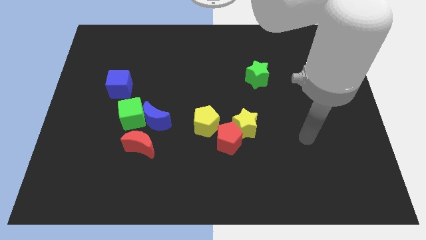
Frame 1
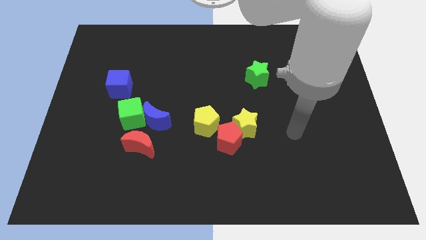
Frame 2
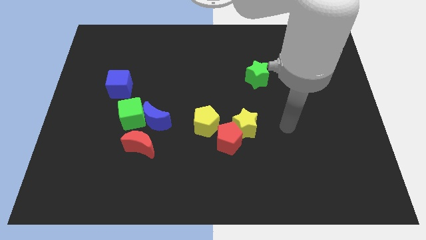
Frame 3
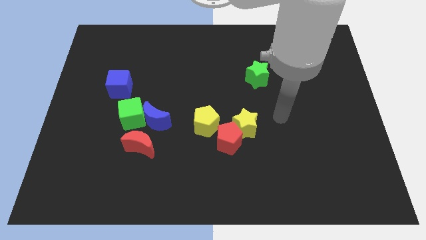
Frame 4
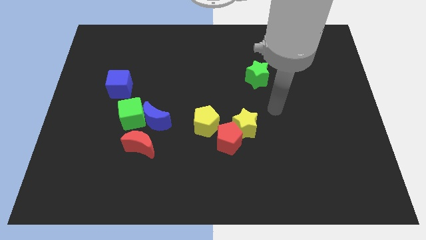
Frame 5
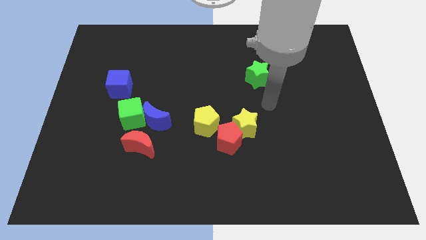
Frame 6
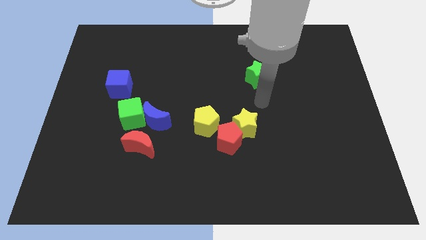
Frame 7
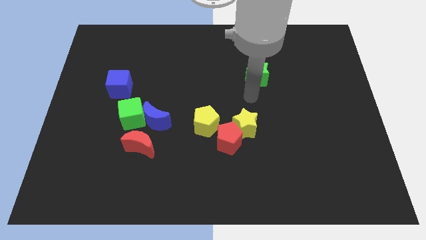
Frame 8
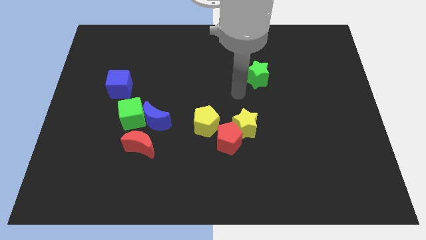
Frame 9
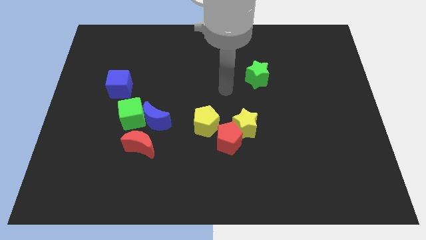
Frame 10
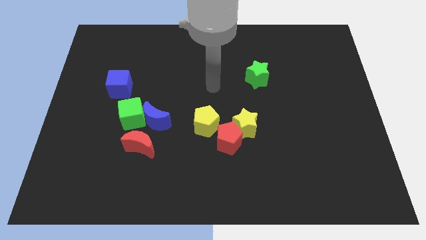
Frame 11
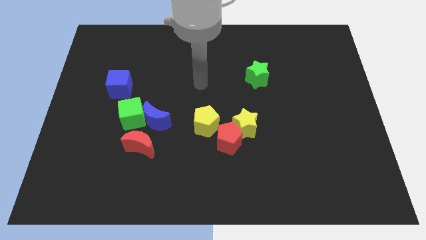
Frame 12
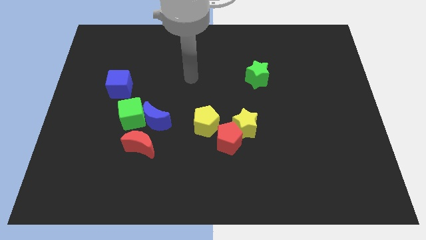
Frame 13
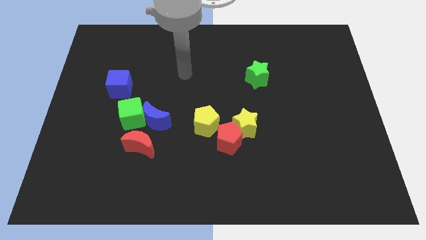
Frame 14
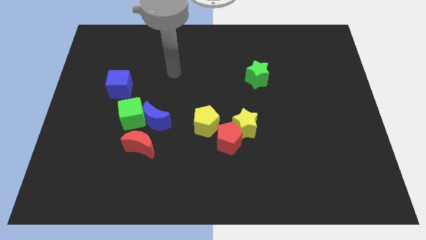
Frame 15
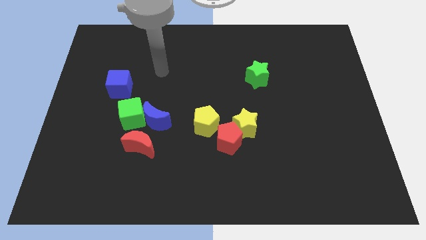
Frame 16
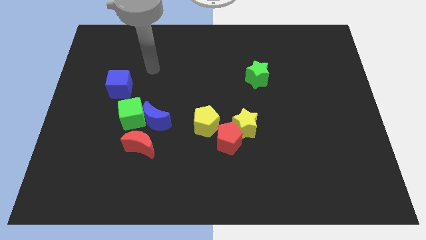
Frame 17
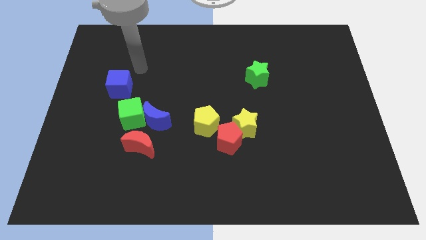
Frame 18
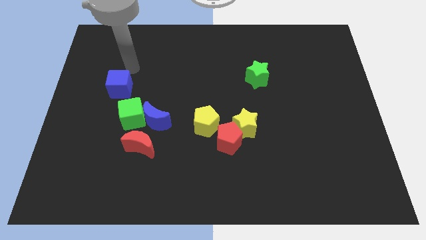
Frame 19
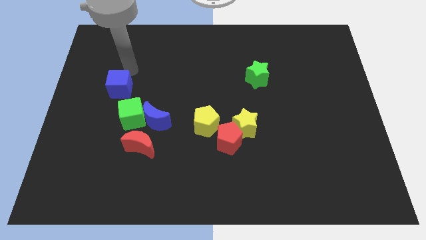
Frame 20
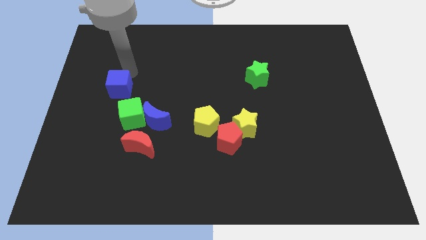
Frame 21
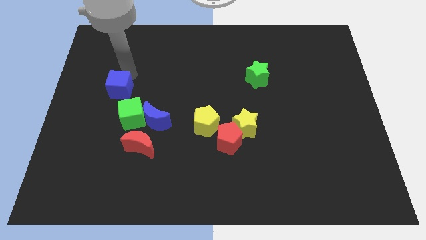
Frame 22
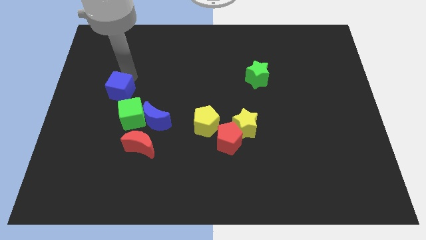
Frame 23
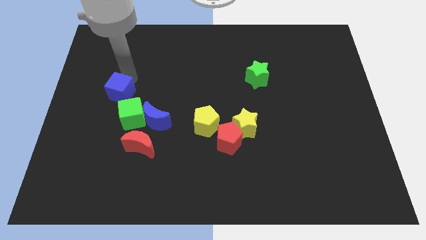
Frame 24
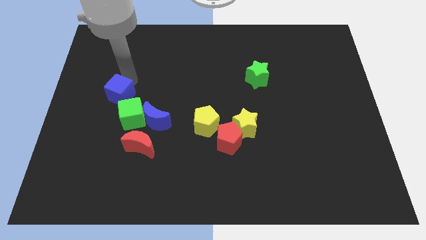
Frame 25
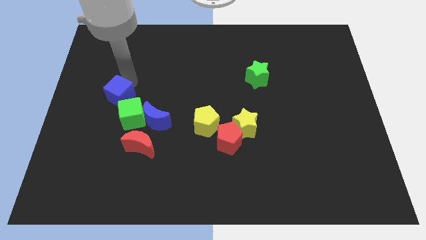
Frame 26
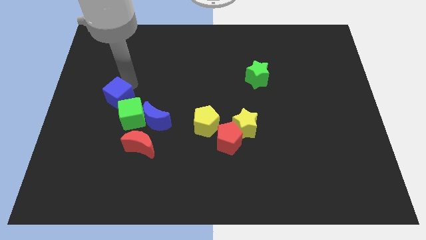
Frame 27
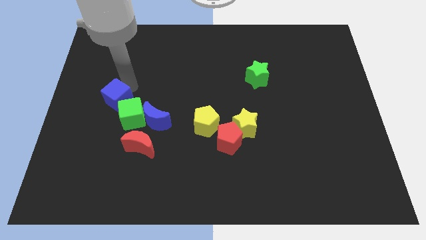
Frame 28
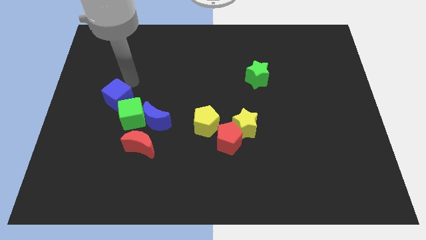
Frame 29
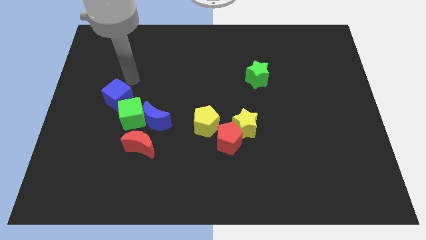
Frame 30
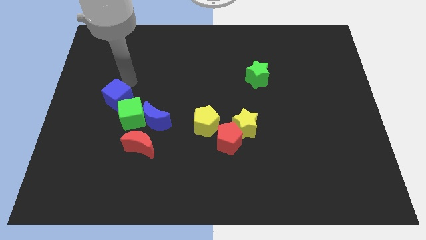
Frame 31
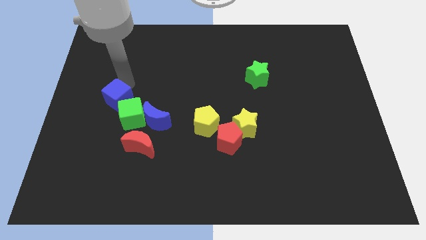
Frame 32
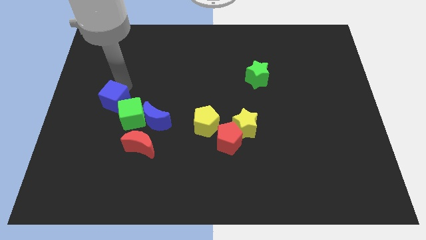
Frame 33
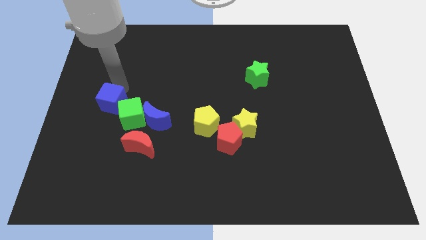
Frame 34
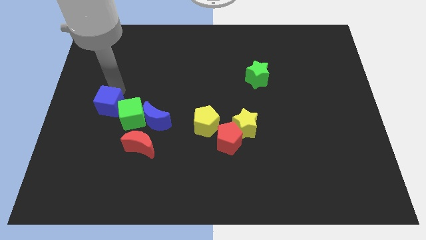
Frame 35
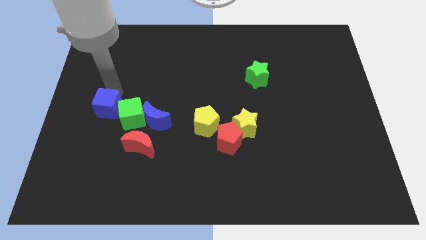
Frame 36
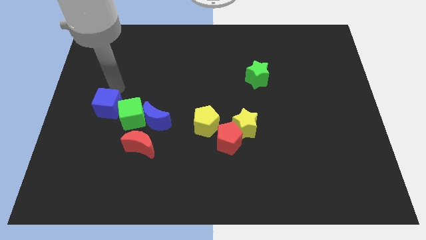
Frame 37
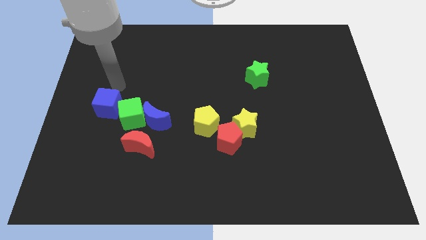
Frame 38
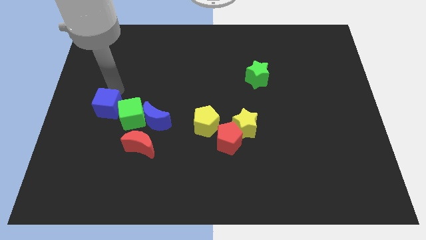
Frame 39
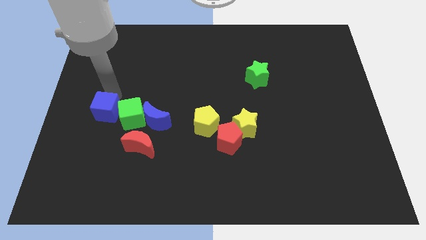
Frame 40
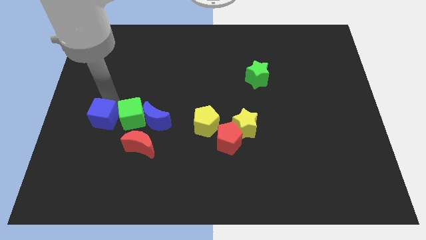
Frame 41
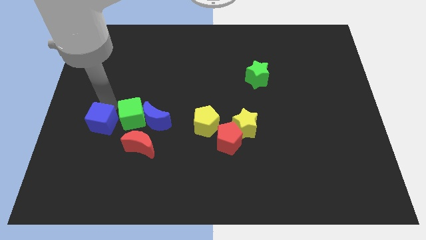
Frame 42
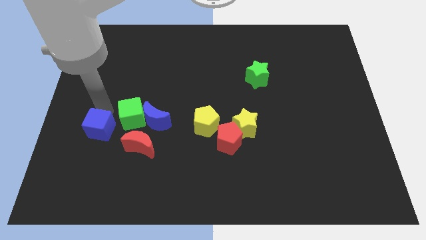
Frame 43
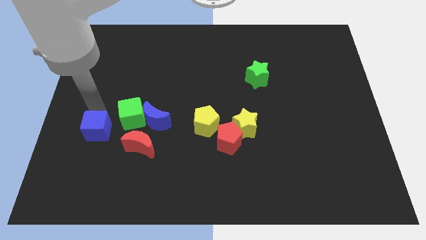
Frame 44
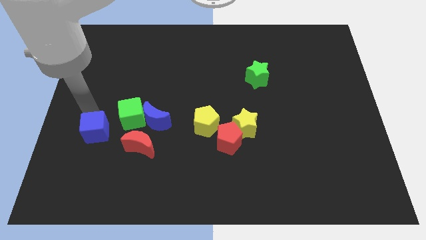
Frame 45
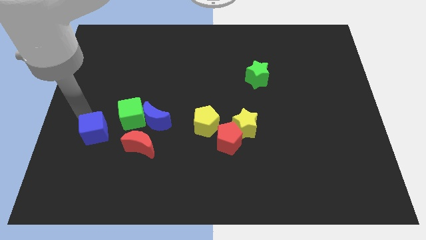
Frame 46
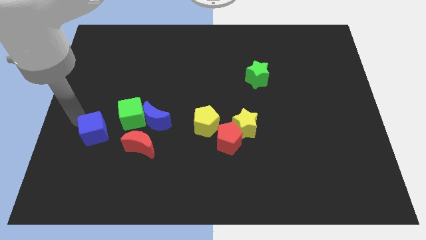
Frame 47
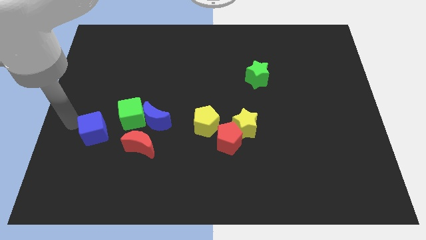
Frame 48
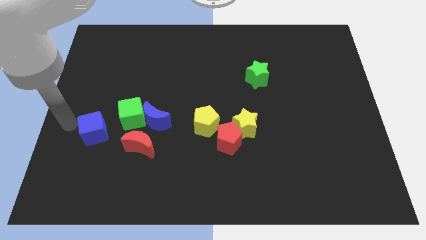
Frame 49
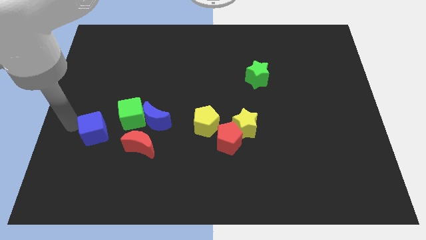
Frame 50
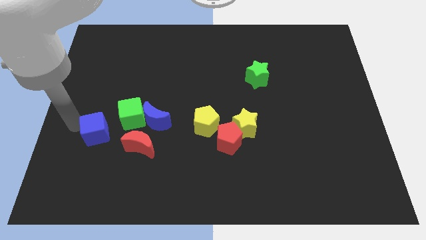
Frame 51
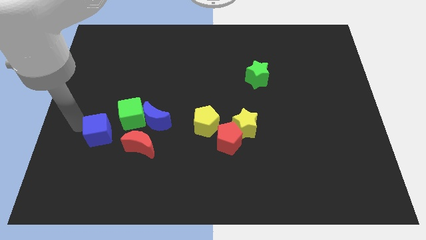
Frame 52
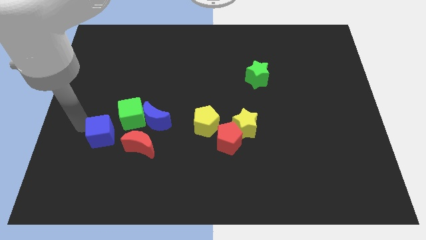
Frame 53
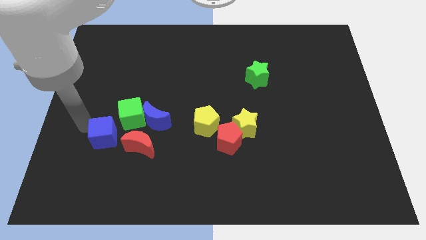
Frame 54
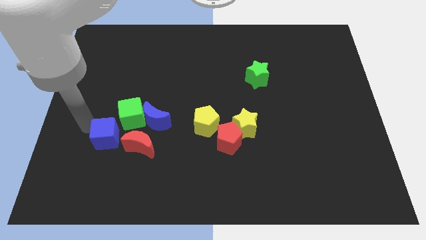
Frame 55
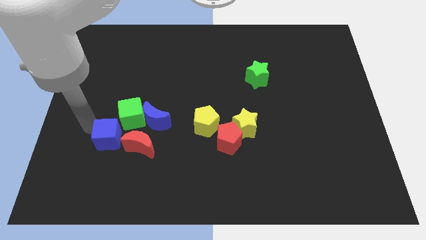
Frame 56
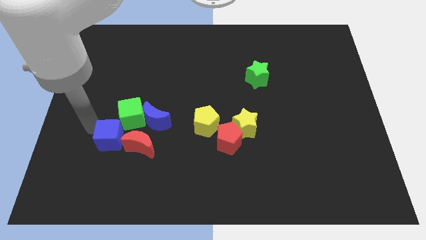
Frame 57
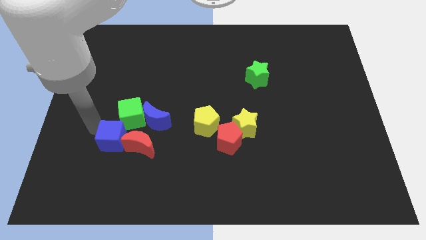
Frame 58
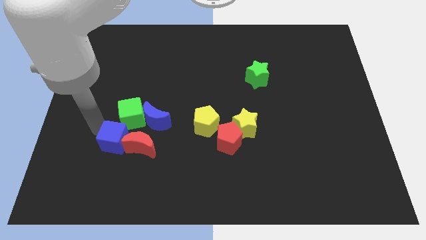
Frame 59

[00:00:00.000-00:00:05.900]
put the blue cube close to the red moon

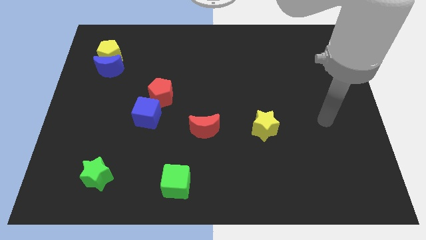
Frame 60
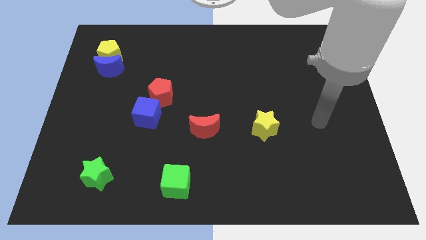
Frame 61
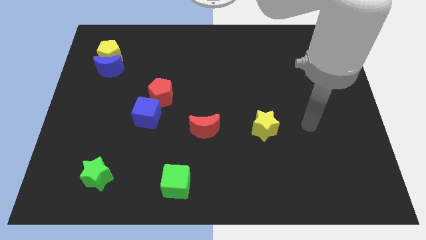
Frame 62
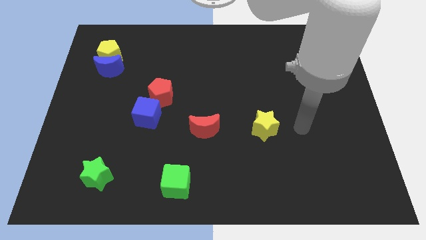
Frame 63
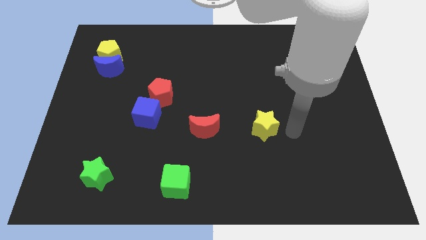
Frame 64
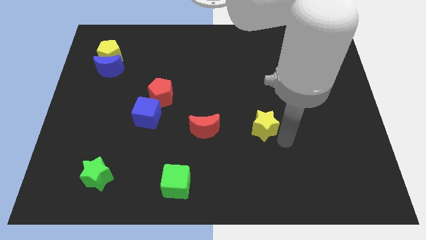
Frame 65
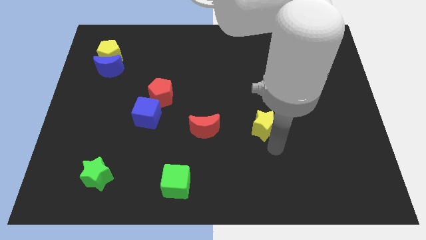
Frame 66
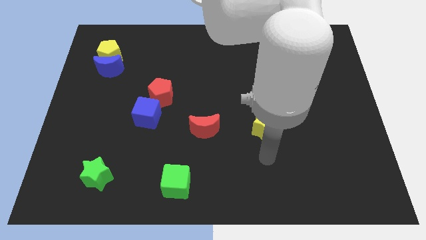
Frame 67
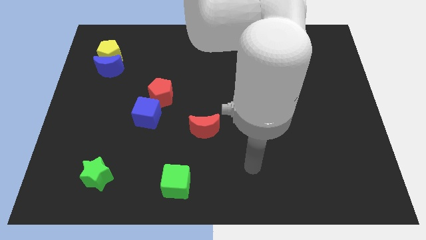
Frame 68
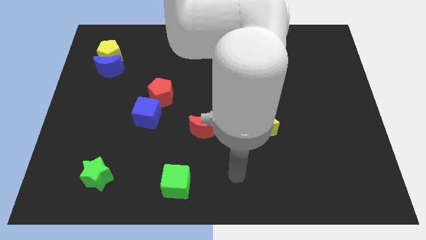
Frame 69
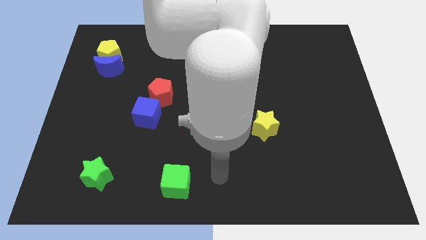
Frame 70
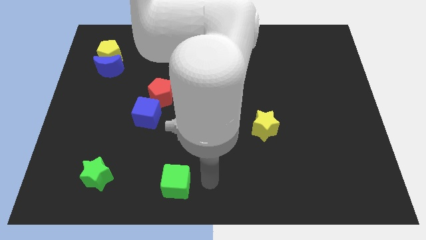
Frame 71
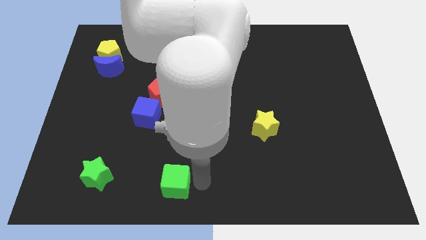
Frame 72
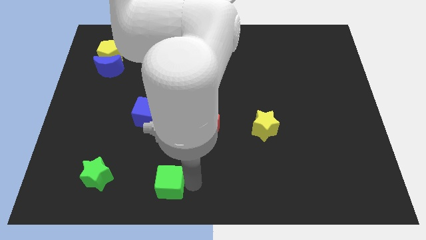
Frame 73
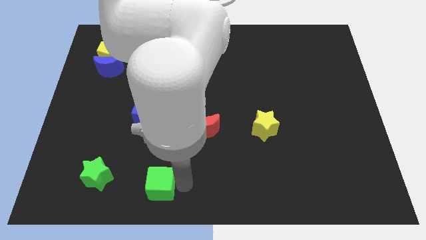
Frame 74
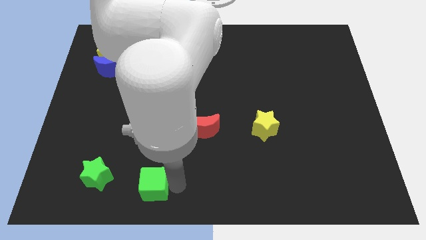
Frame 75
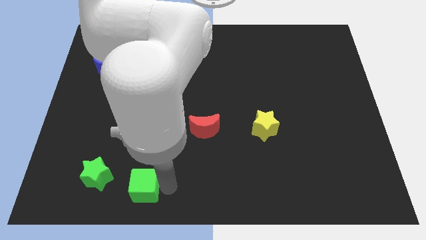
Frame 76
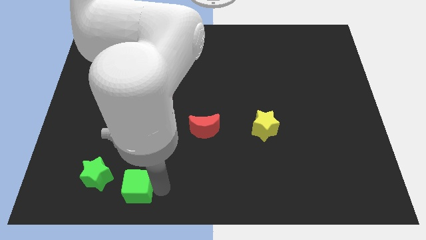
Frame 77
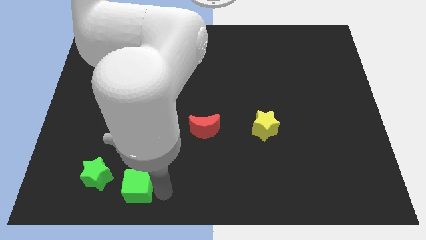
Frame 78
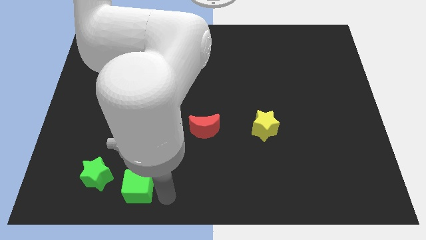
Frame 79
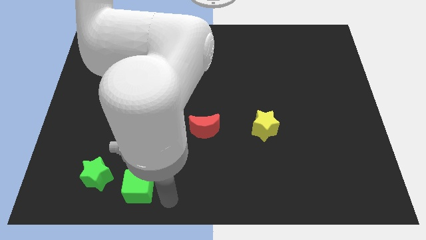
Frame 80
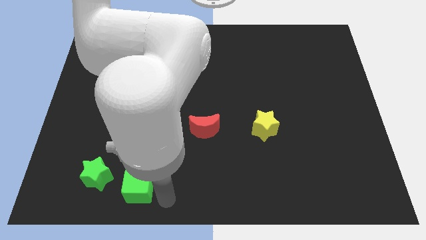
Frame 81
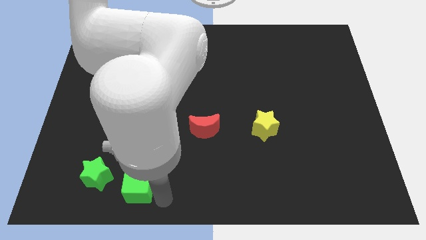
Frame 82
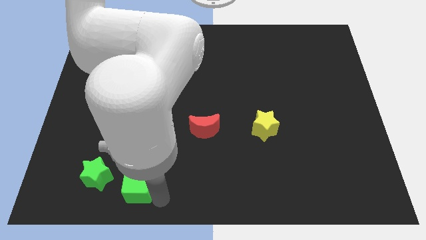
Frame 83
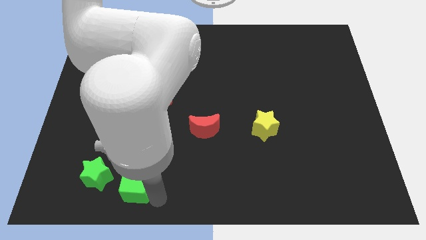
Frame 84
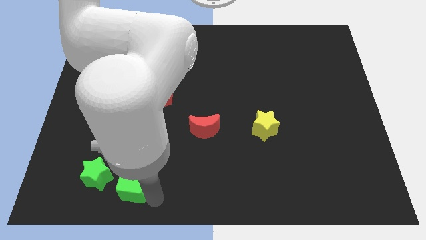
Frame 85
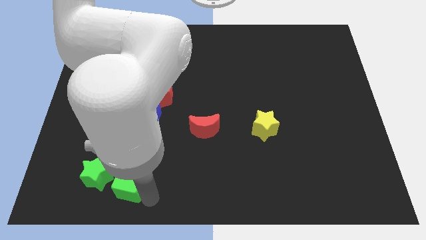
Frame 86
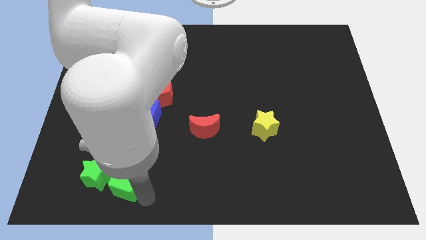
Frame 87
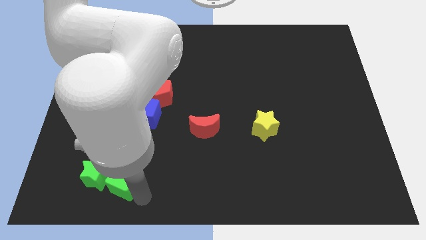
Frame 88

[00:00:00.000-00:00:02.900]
move the green cube to the green star
